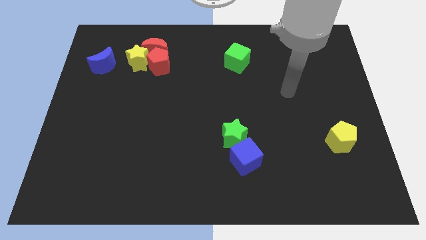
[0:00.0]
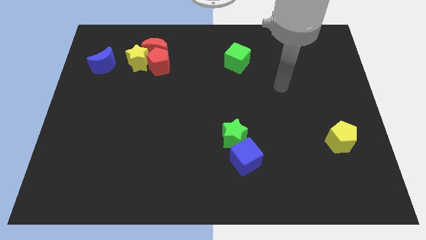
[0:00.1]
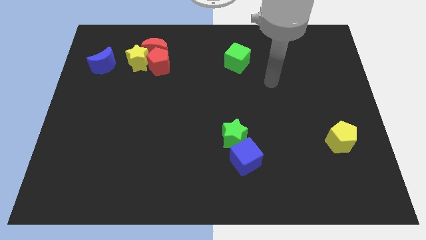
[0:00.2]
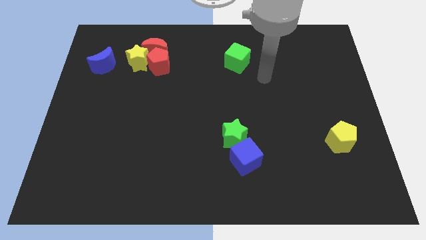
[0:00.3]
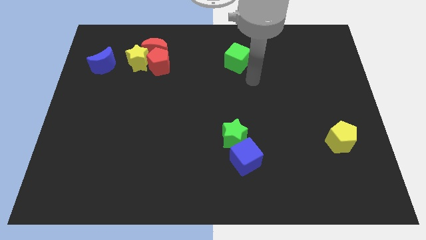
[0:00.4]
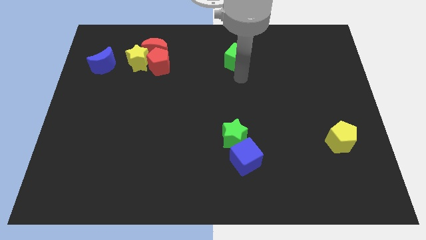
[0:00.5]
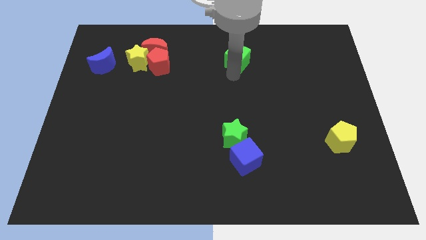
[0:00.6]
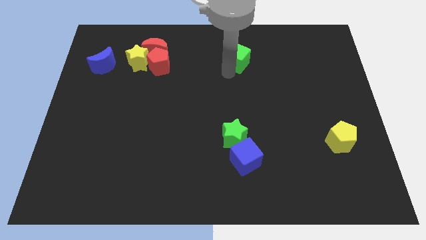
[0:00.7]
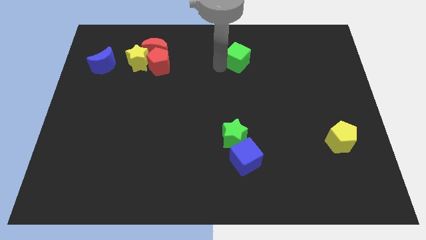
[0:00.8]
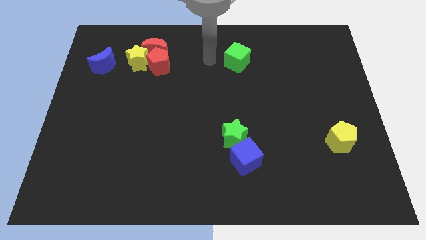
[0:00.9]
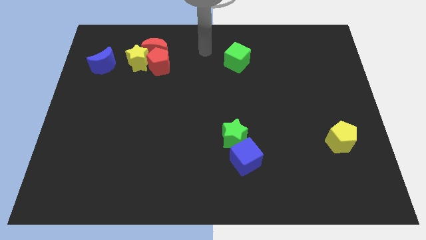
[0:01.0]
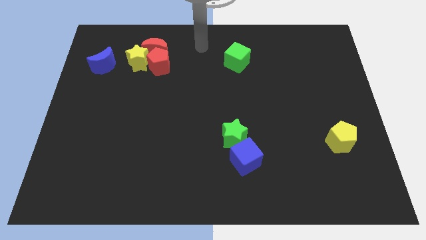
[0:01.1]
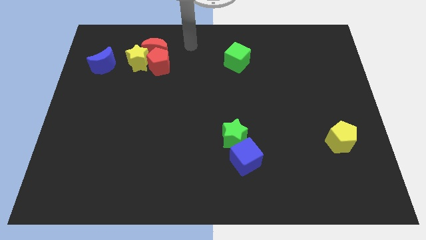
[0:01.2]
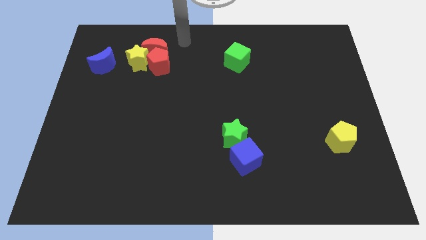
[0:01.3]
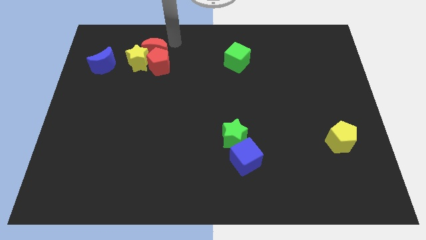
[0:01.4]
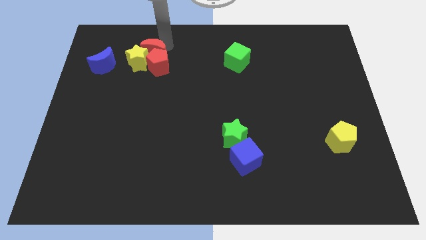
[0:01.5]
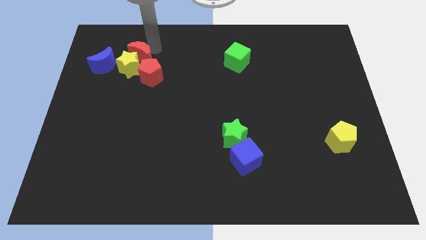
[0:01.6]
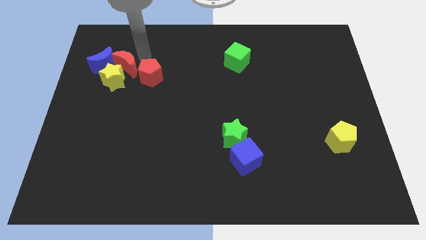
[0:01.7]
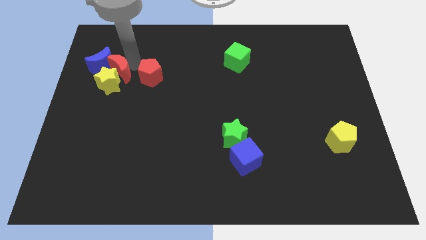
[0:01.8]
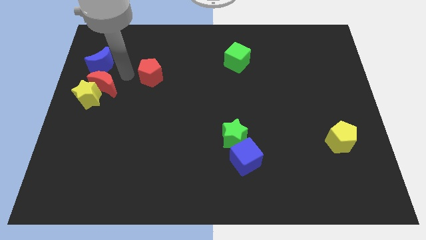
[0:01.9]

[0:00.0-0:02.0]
pull the red pentagon apart from the red moon and yellow star

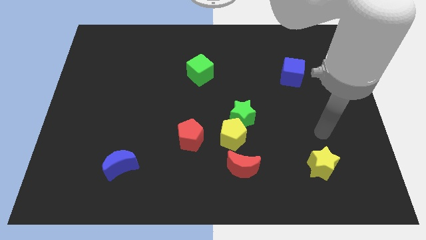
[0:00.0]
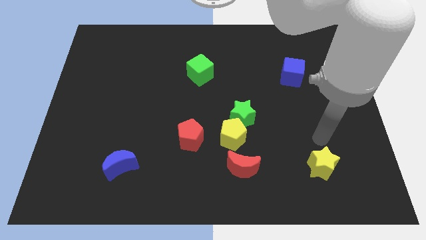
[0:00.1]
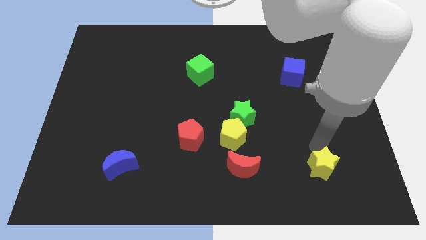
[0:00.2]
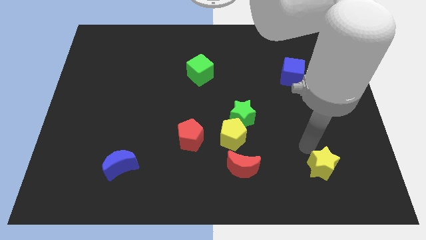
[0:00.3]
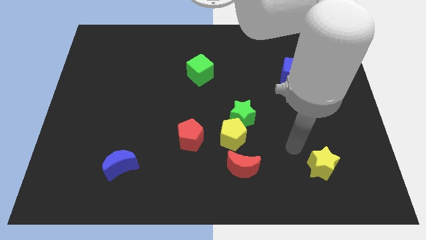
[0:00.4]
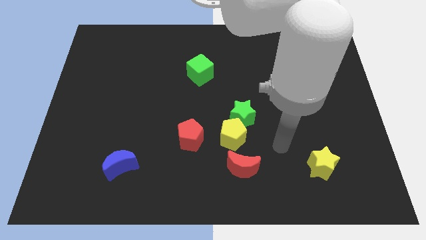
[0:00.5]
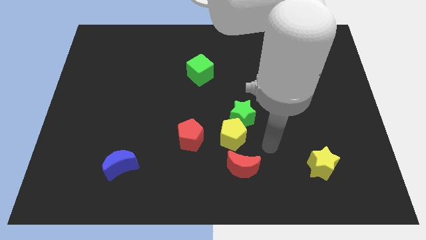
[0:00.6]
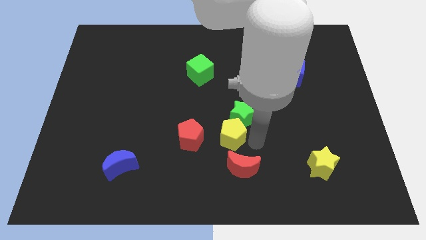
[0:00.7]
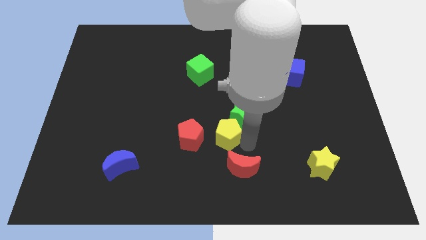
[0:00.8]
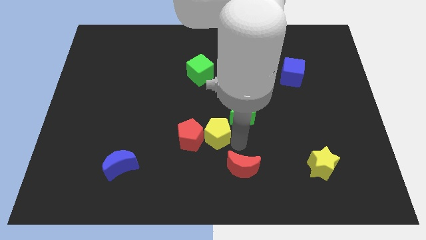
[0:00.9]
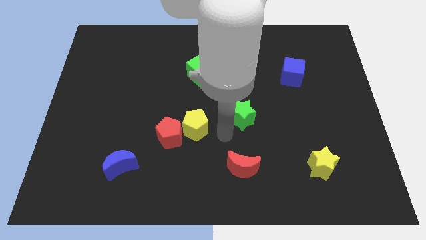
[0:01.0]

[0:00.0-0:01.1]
move the green star away from the yellow pentagon

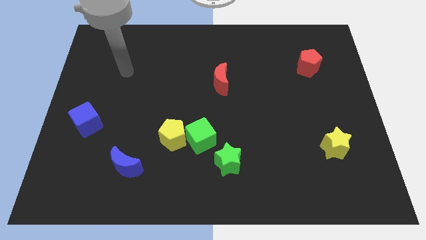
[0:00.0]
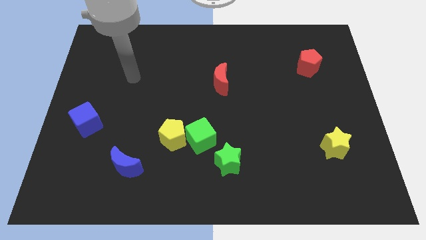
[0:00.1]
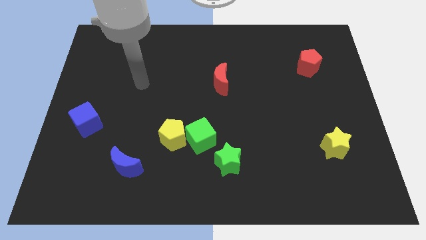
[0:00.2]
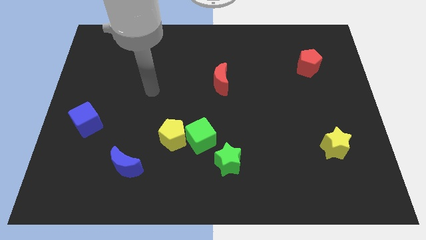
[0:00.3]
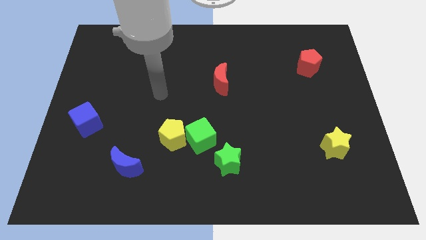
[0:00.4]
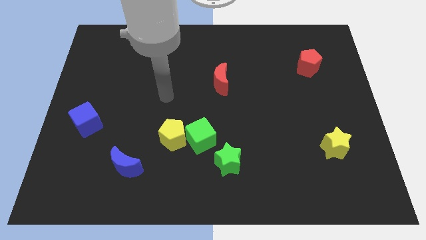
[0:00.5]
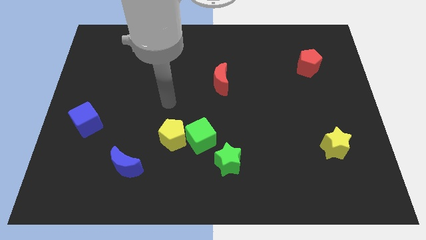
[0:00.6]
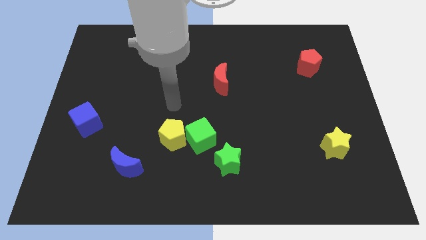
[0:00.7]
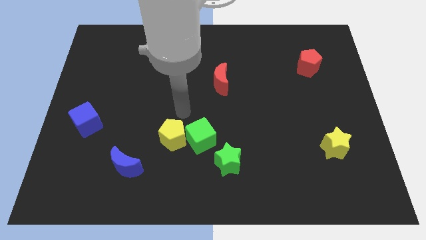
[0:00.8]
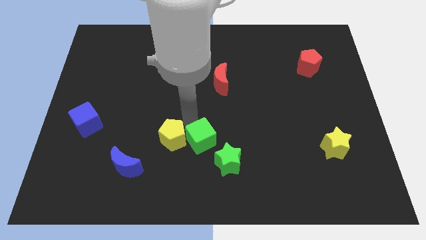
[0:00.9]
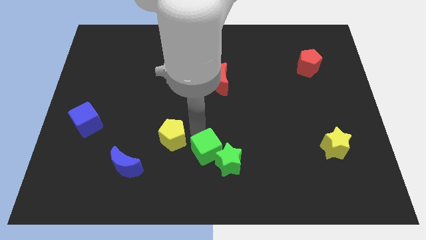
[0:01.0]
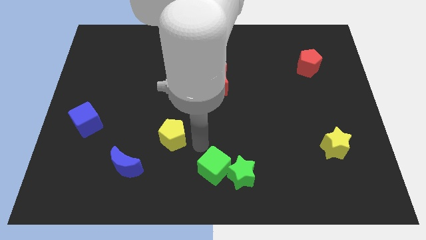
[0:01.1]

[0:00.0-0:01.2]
move the yellow pentagon away from the green cube

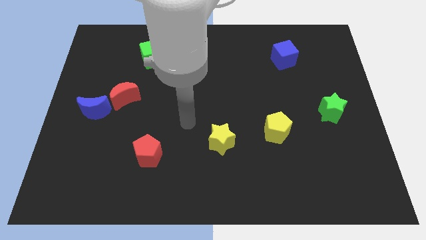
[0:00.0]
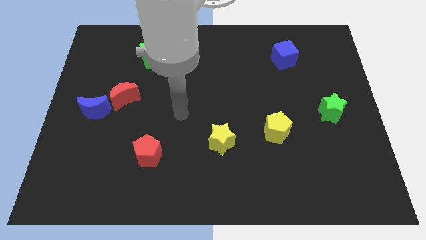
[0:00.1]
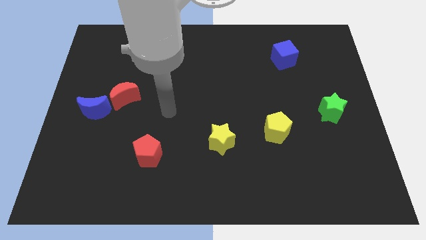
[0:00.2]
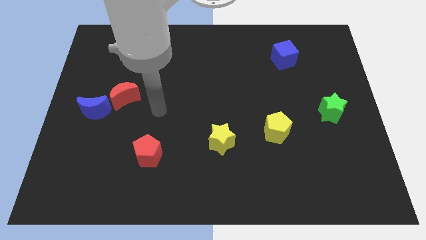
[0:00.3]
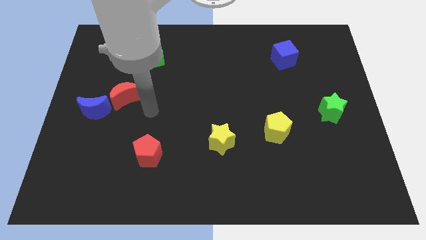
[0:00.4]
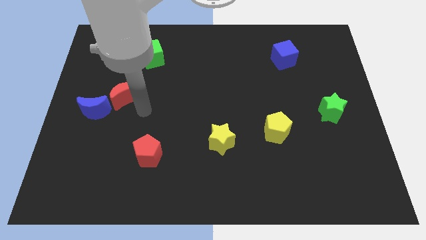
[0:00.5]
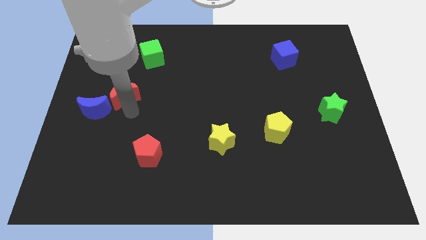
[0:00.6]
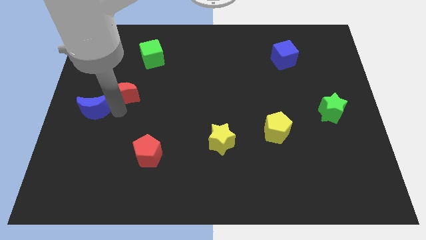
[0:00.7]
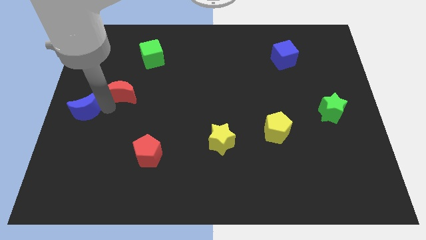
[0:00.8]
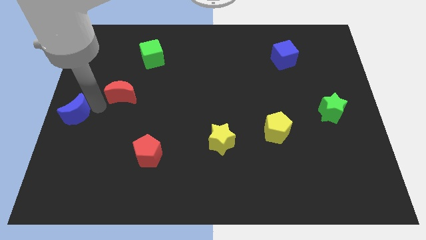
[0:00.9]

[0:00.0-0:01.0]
move the red moon away from the blue moon

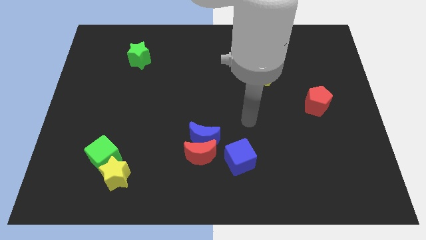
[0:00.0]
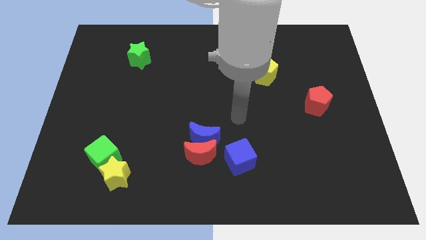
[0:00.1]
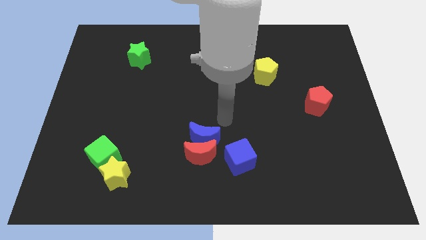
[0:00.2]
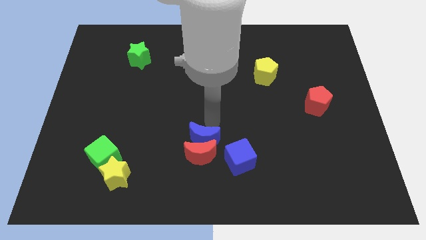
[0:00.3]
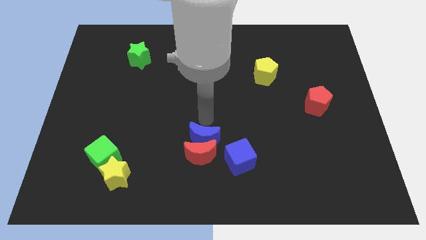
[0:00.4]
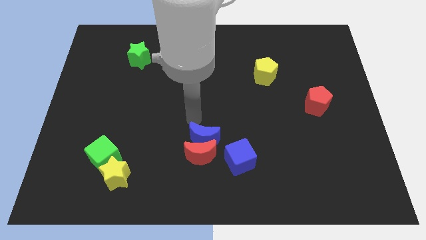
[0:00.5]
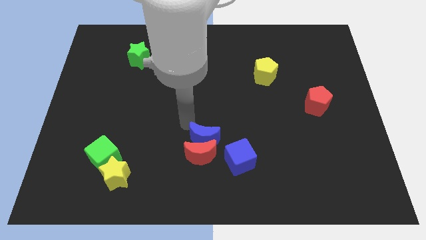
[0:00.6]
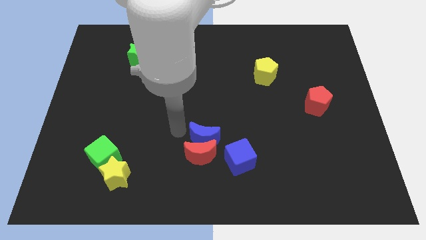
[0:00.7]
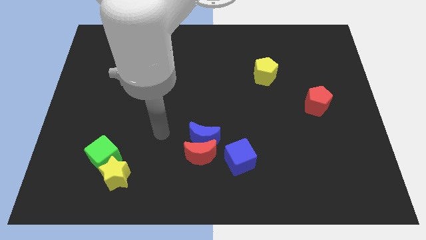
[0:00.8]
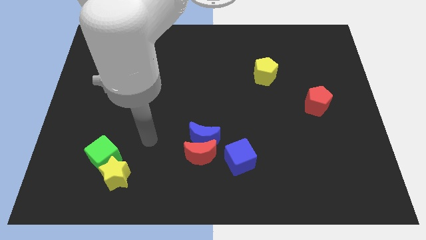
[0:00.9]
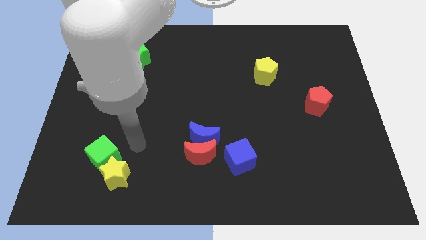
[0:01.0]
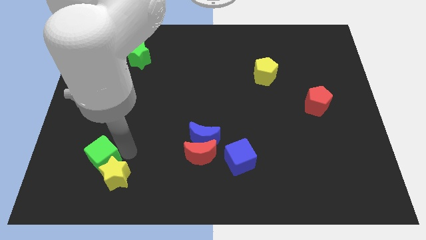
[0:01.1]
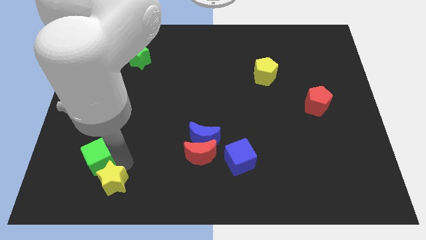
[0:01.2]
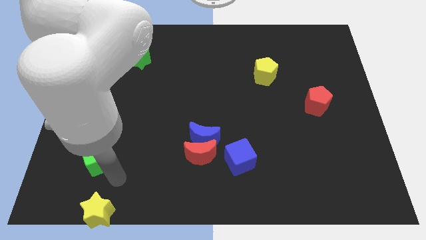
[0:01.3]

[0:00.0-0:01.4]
move the green cube away from the yellow star

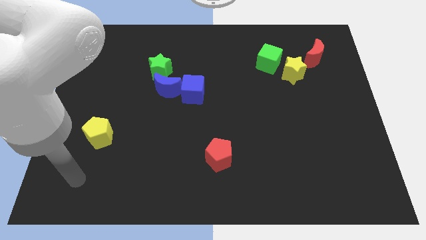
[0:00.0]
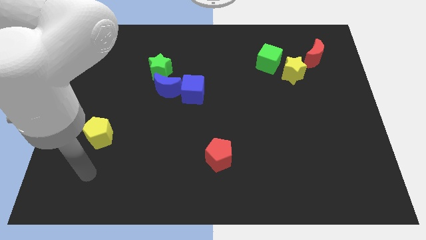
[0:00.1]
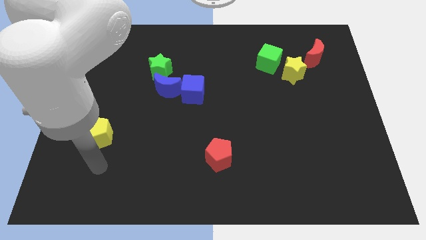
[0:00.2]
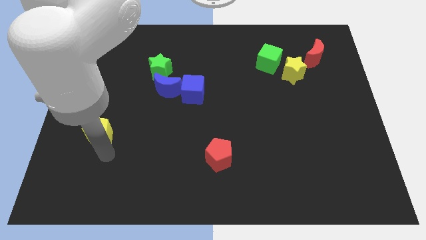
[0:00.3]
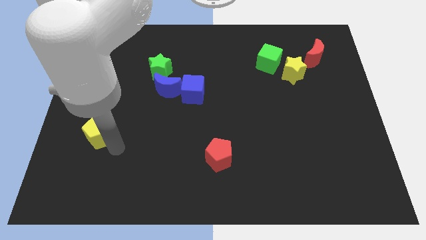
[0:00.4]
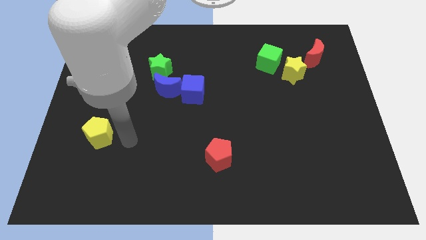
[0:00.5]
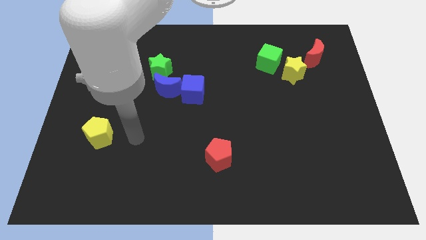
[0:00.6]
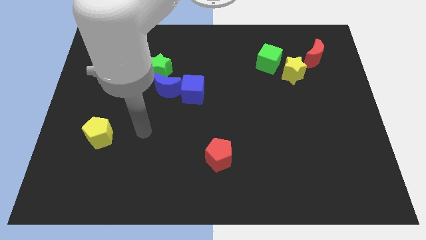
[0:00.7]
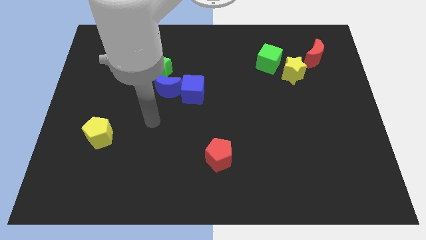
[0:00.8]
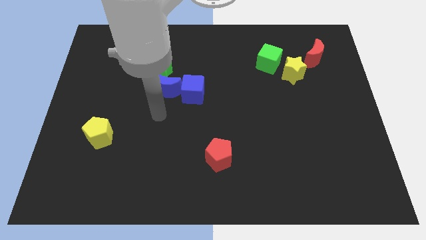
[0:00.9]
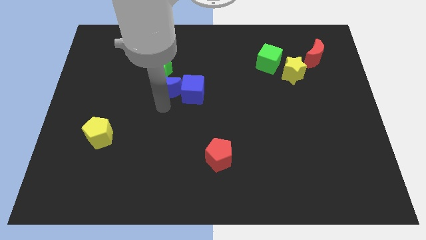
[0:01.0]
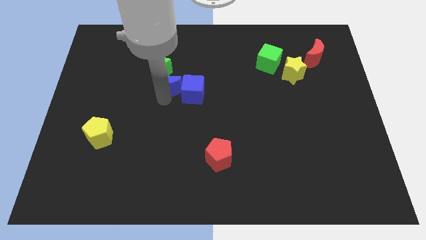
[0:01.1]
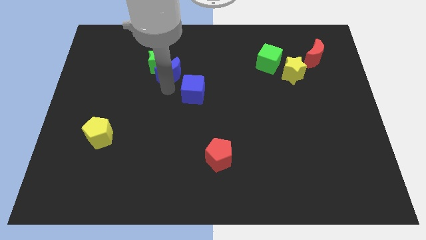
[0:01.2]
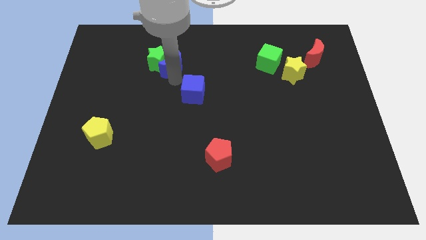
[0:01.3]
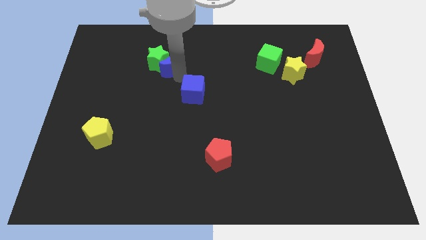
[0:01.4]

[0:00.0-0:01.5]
separate the blue cube from the blue moon

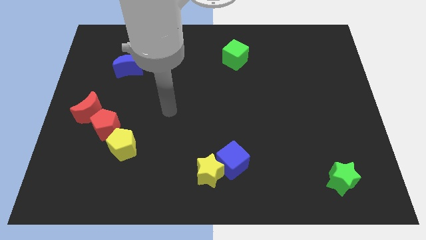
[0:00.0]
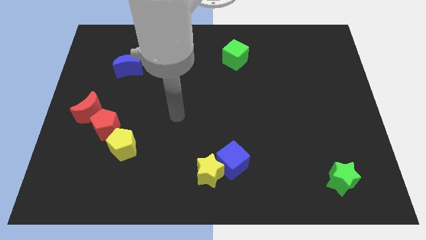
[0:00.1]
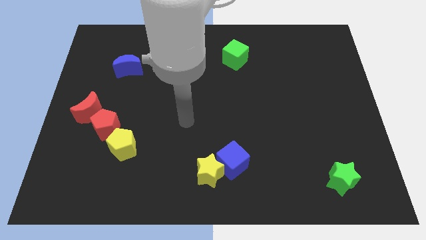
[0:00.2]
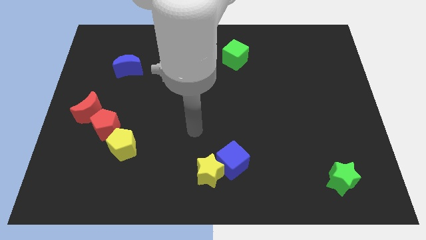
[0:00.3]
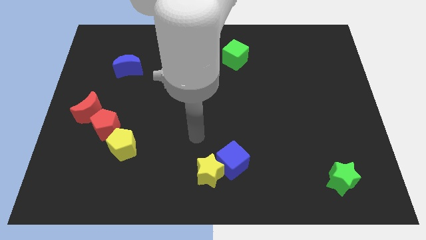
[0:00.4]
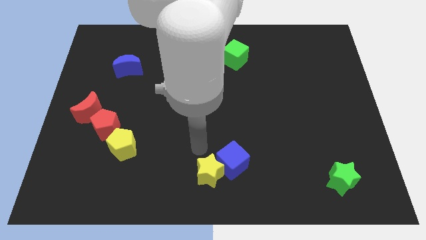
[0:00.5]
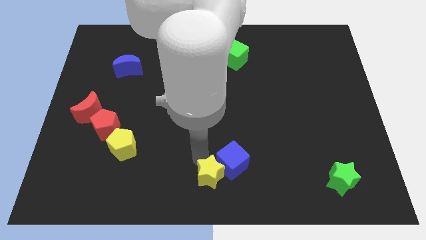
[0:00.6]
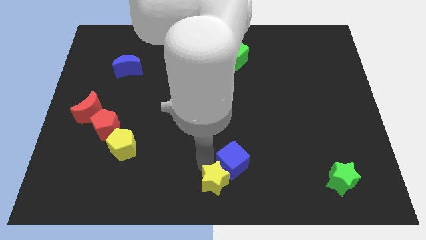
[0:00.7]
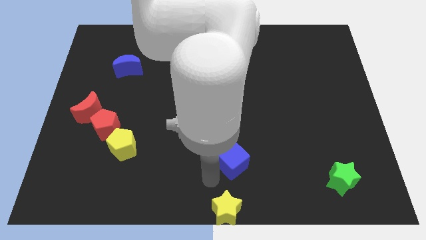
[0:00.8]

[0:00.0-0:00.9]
move the blue cube away from the yellow star

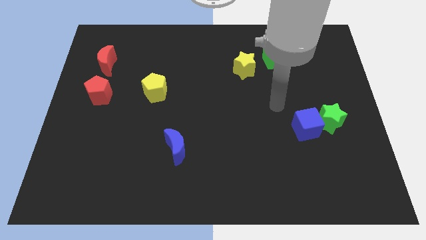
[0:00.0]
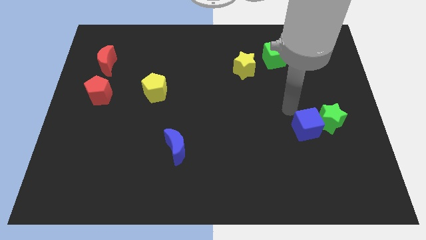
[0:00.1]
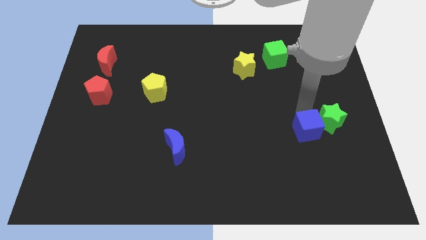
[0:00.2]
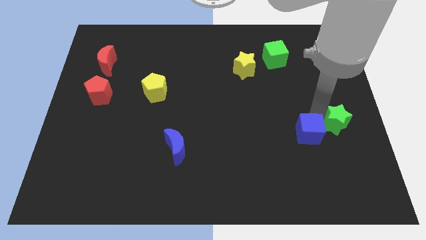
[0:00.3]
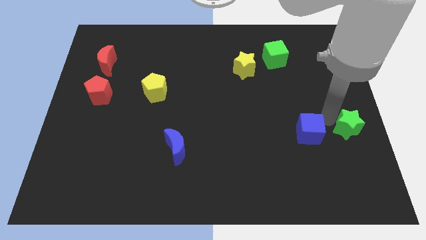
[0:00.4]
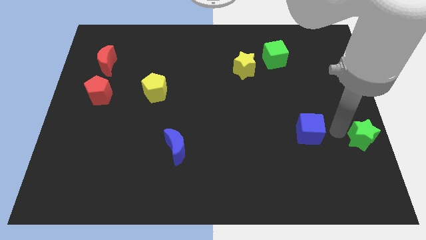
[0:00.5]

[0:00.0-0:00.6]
separate the blue cube from the green star
